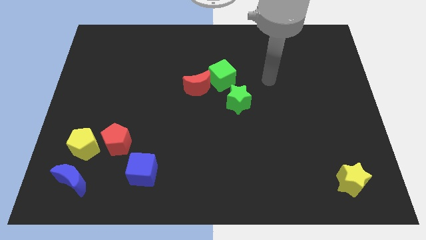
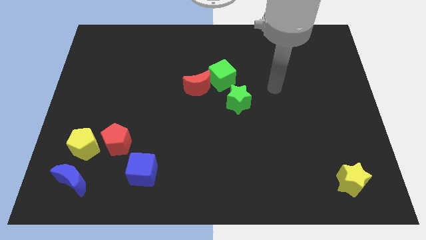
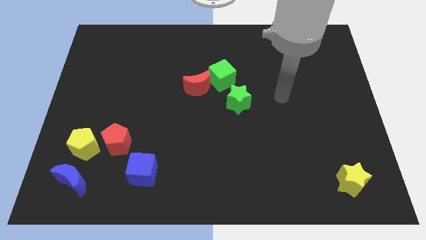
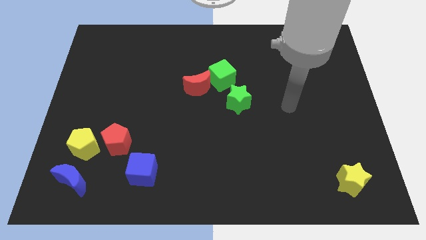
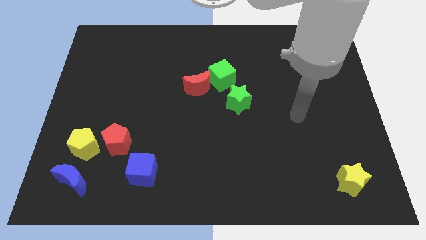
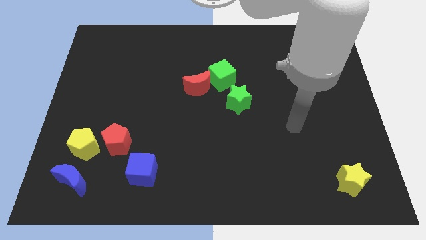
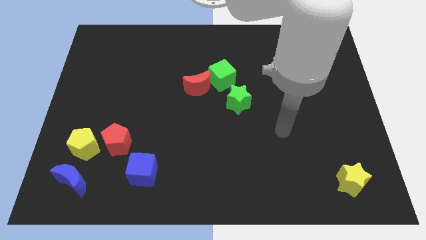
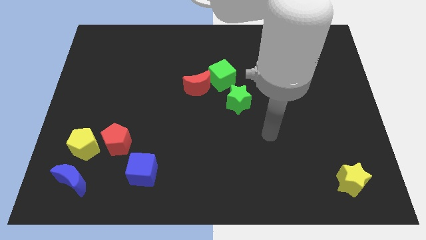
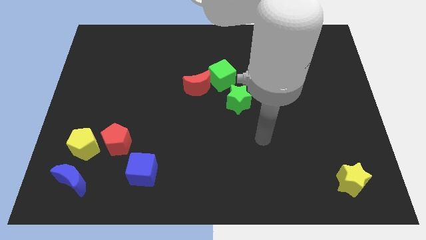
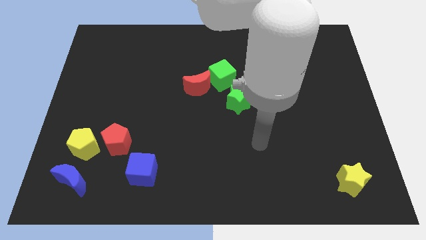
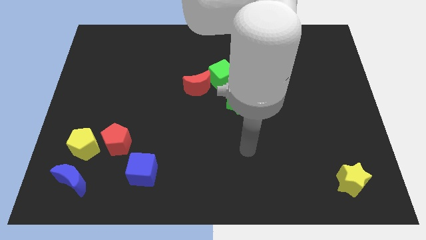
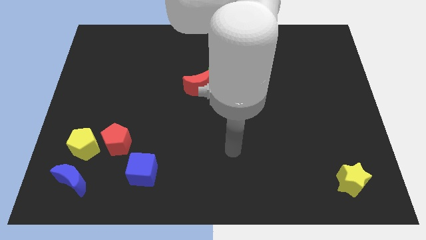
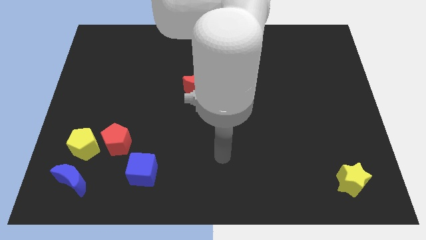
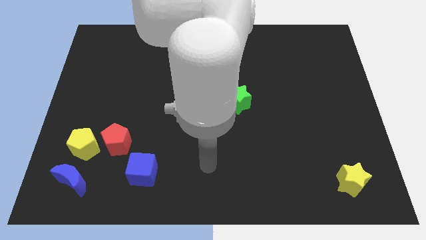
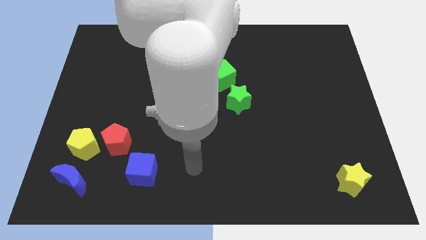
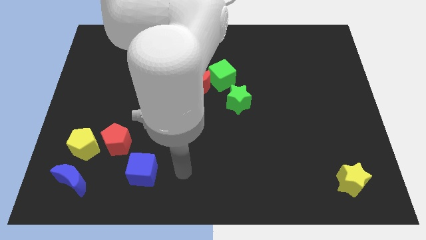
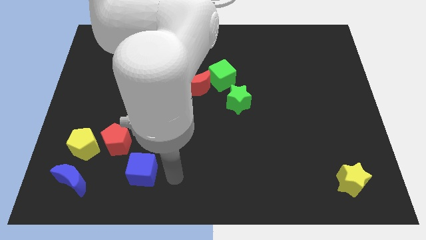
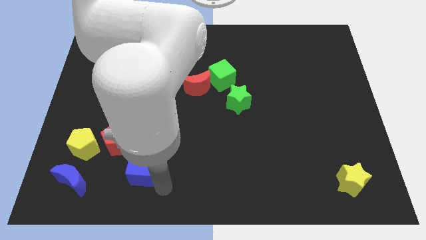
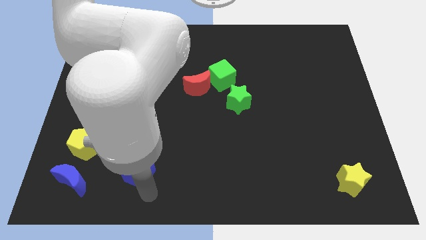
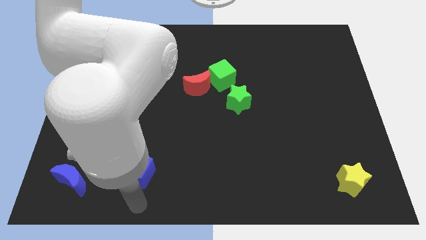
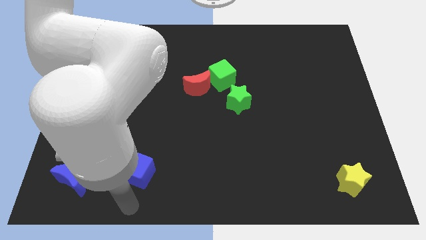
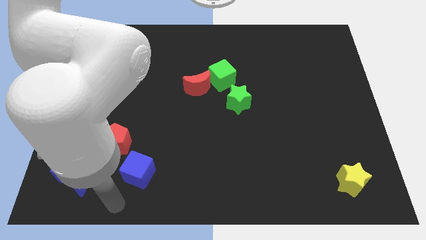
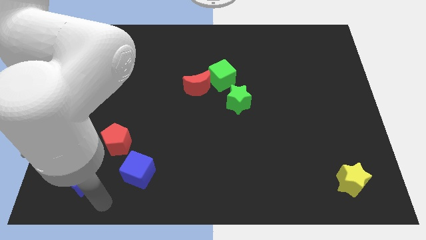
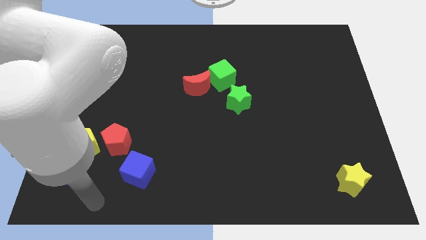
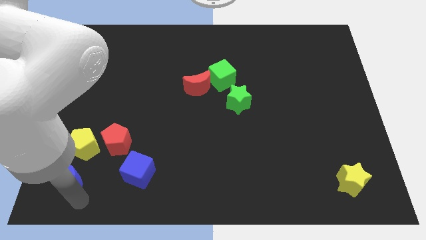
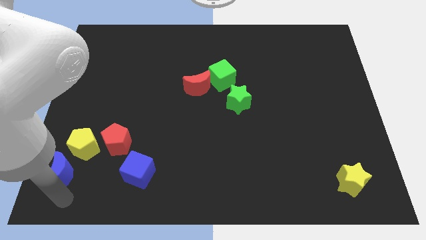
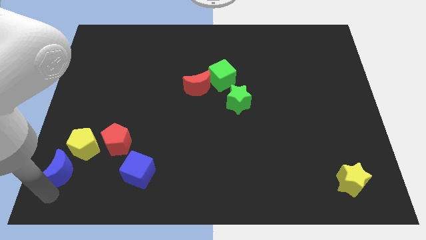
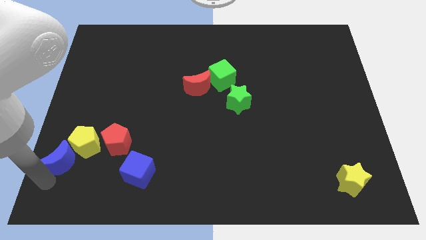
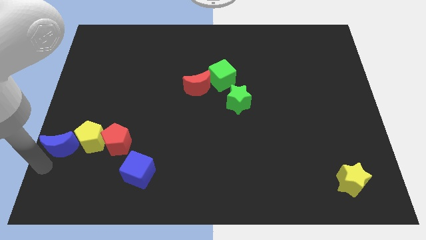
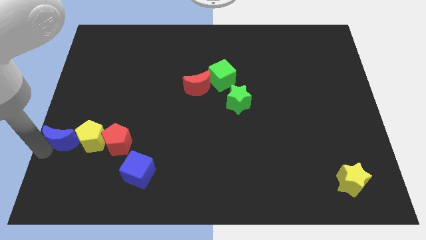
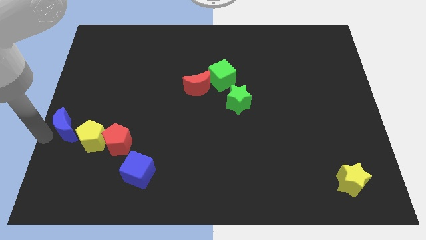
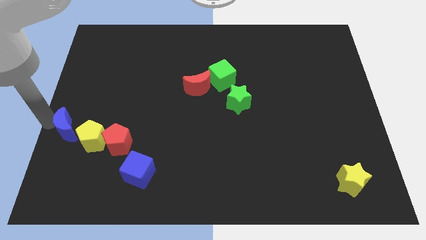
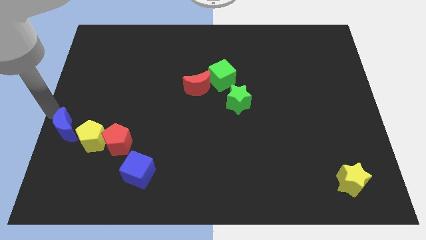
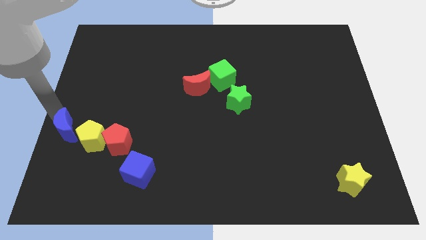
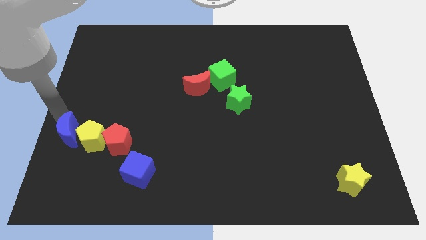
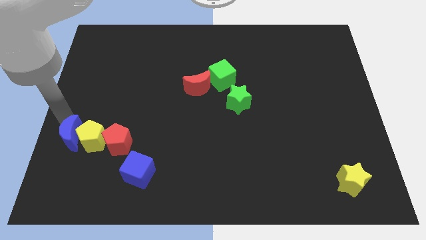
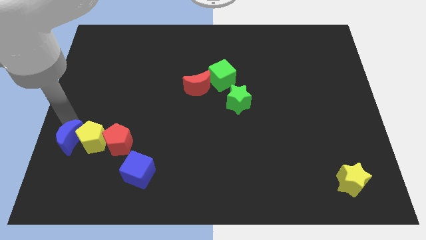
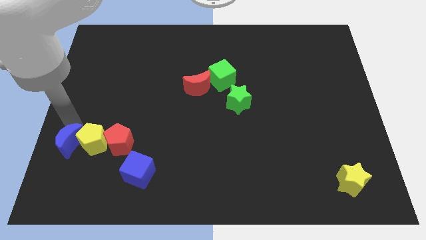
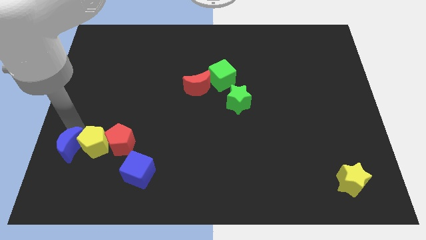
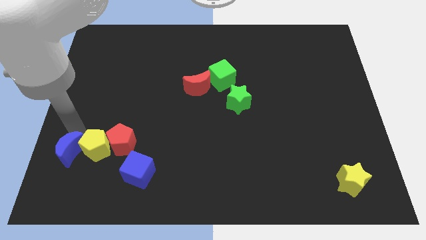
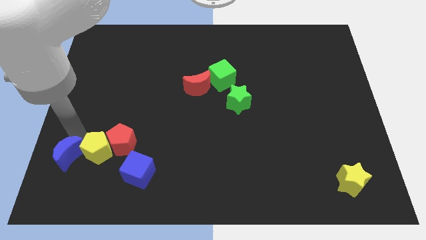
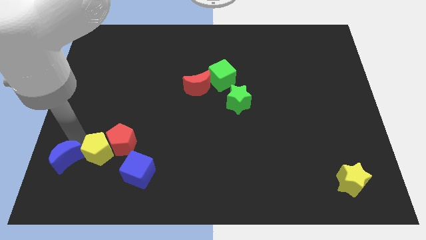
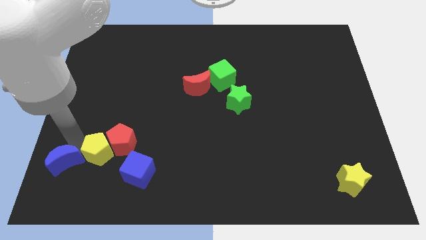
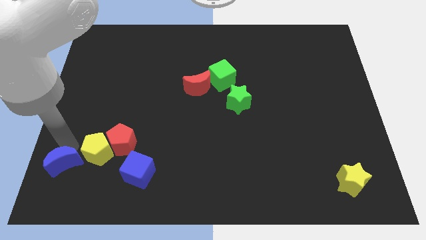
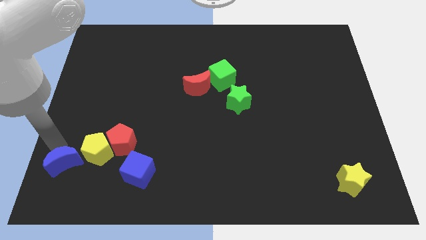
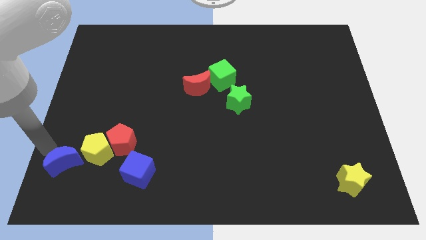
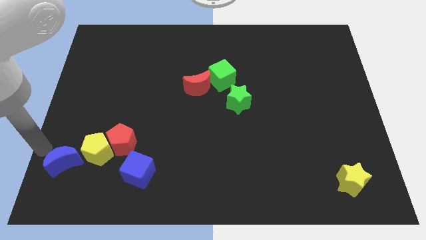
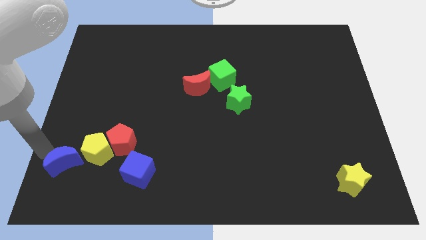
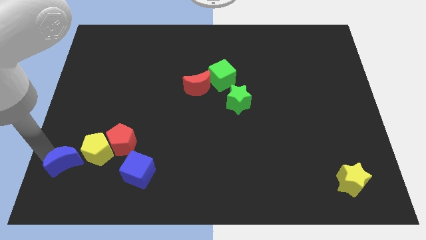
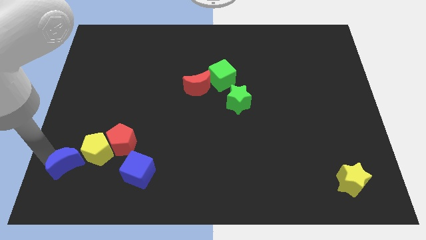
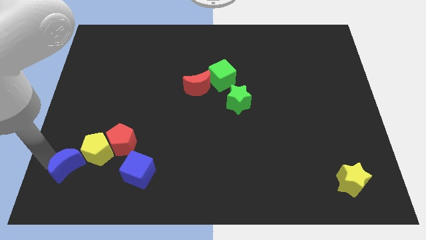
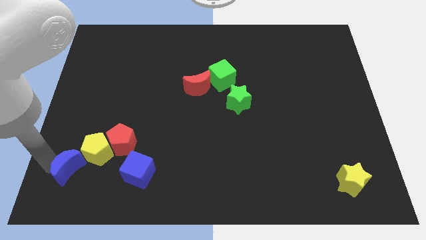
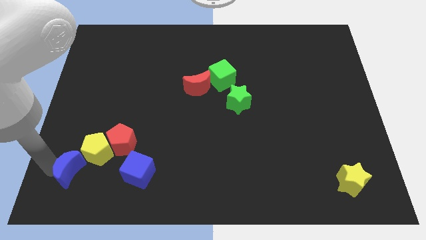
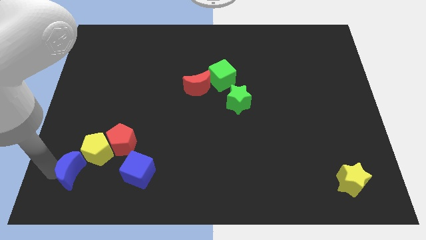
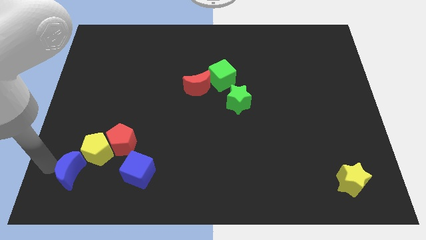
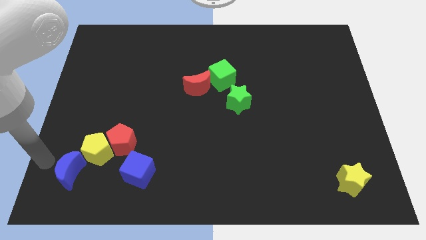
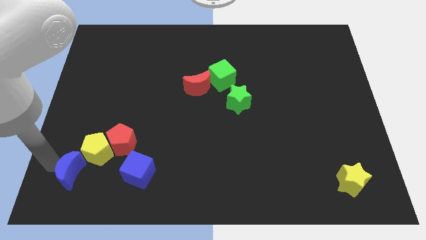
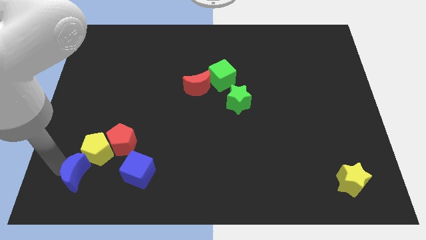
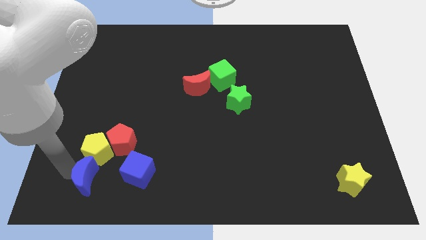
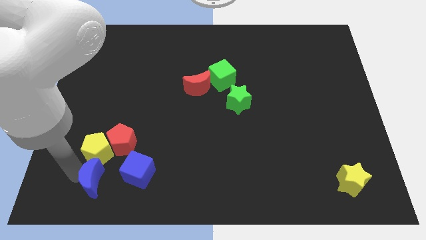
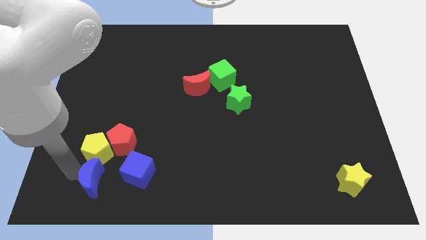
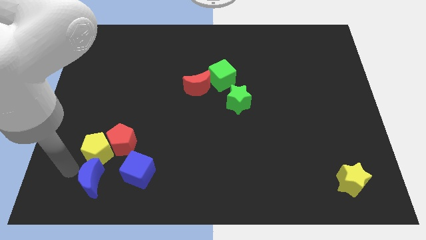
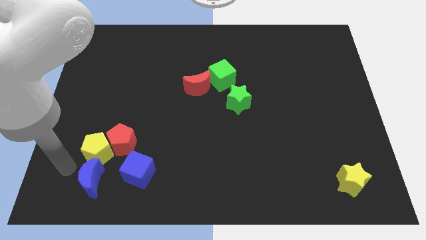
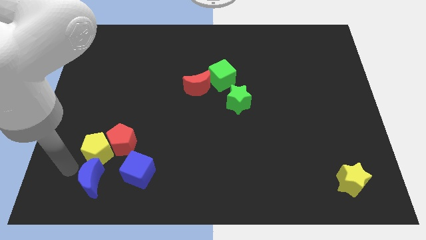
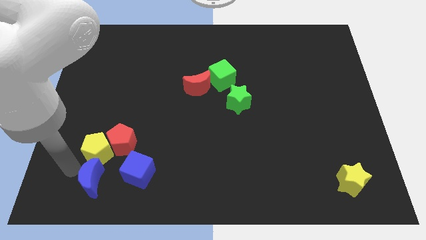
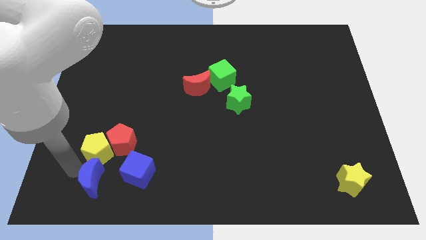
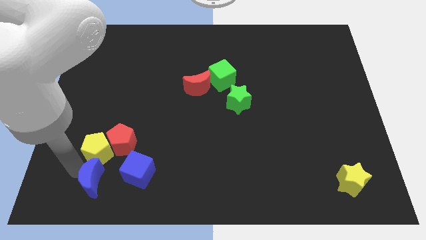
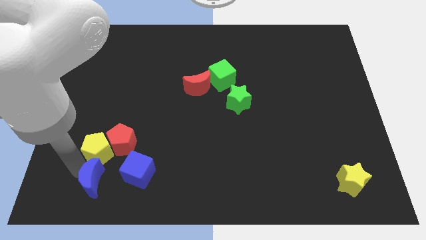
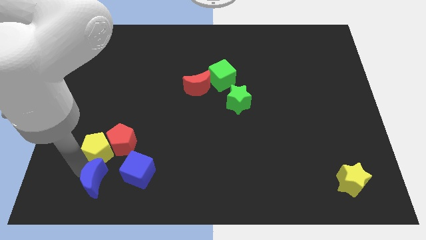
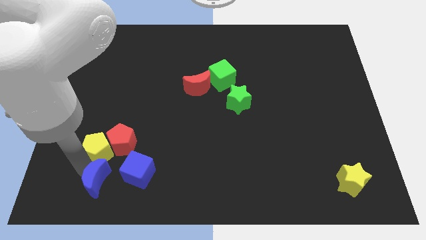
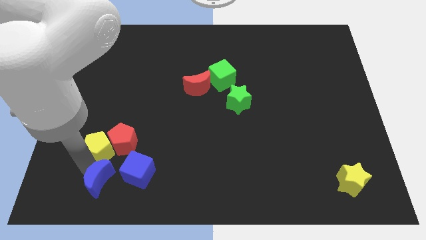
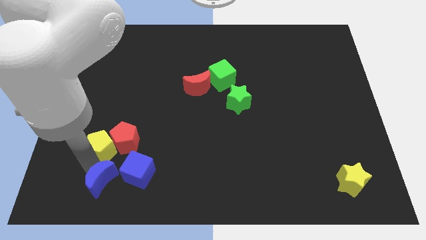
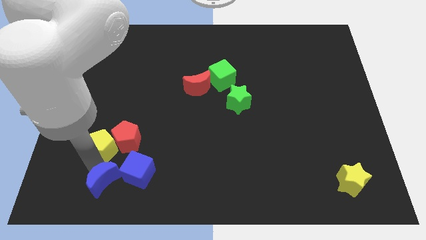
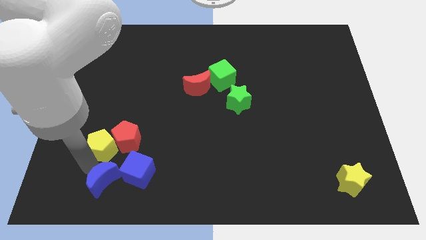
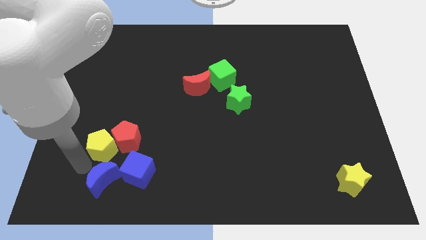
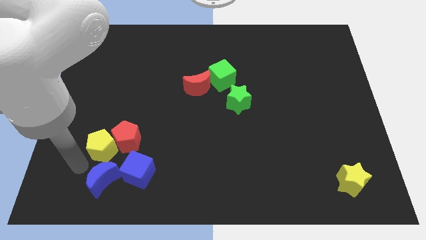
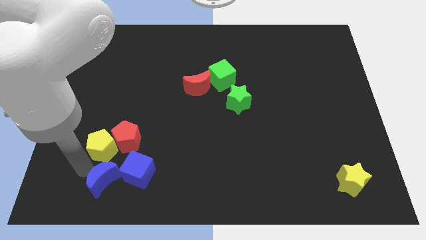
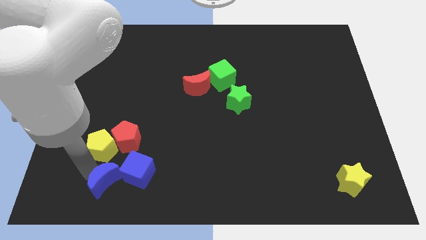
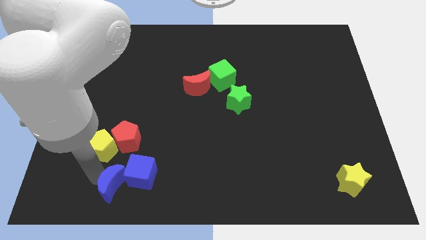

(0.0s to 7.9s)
push the blue moon somewhat to the right
